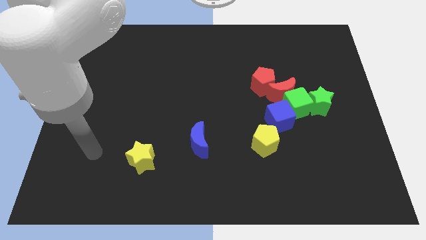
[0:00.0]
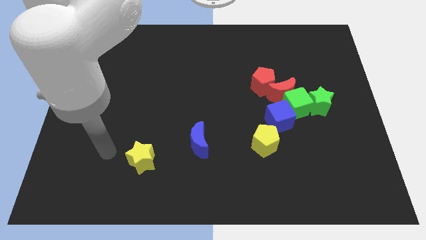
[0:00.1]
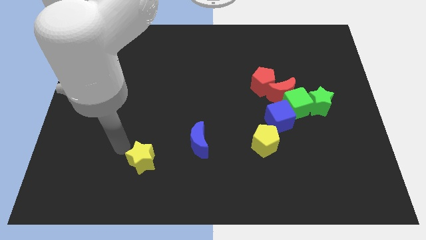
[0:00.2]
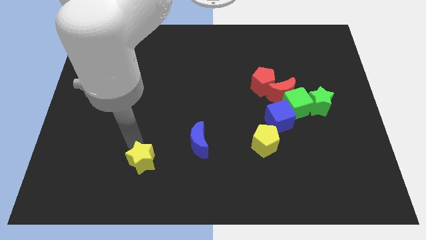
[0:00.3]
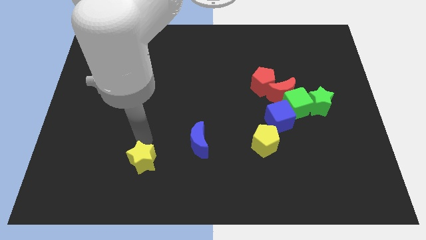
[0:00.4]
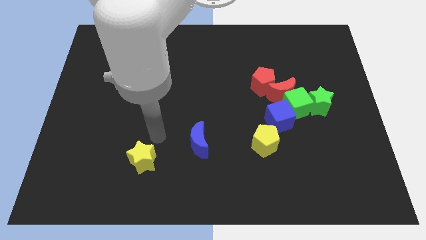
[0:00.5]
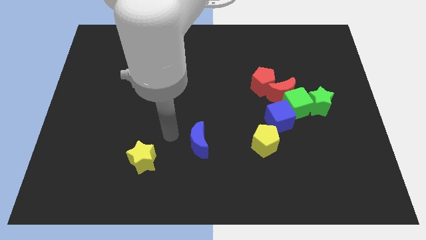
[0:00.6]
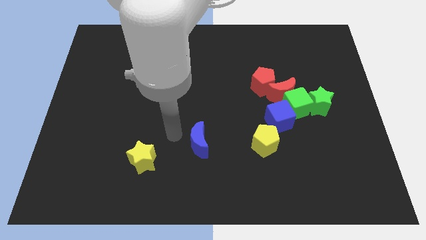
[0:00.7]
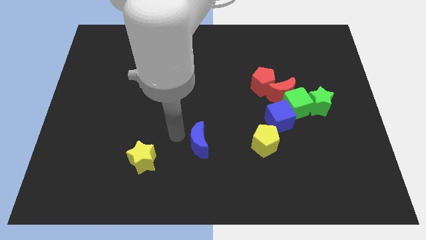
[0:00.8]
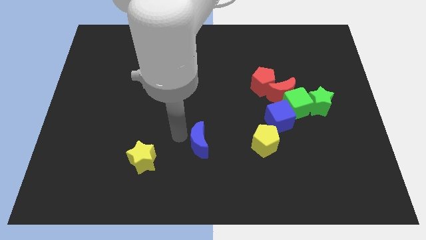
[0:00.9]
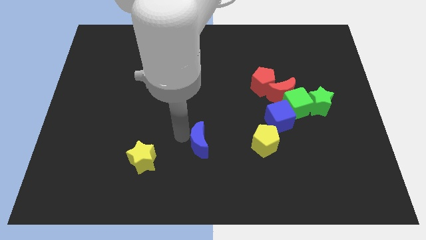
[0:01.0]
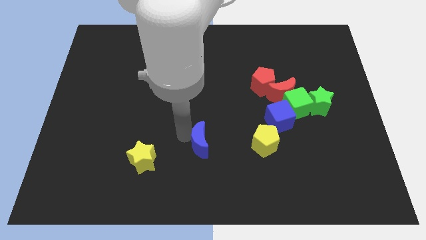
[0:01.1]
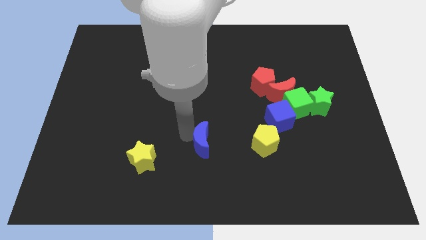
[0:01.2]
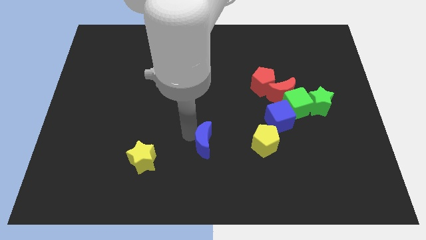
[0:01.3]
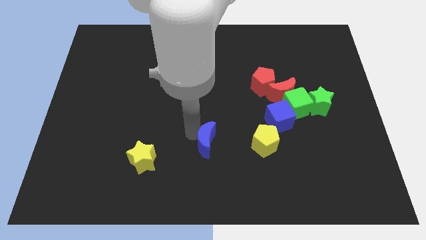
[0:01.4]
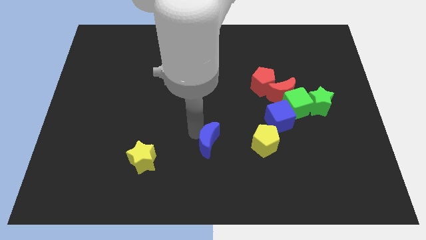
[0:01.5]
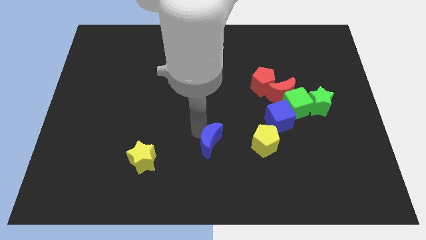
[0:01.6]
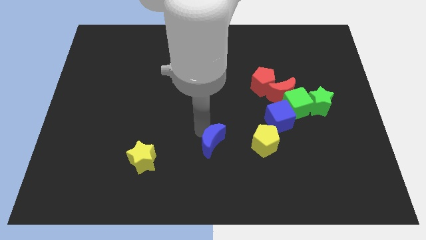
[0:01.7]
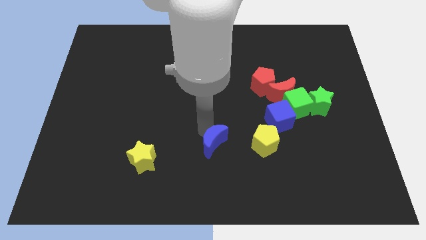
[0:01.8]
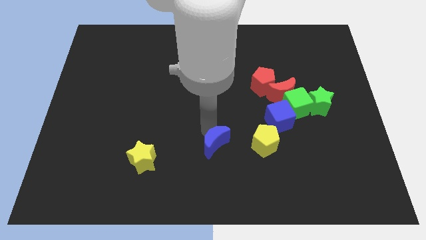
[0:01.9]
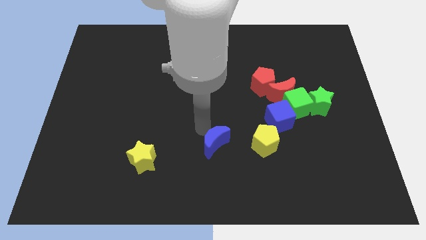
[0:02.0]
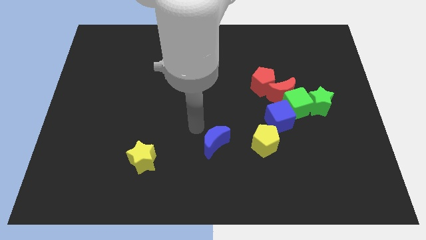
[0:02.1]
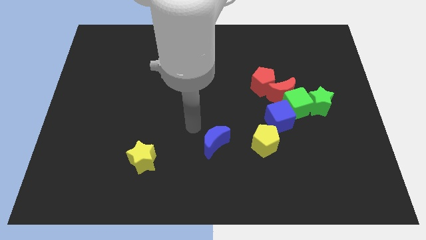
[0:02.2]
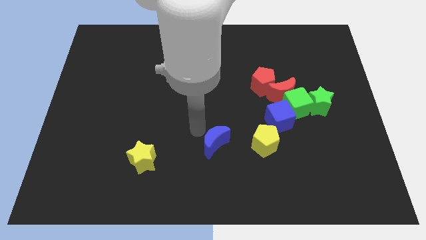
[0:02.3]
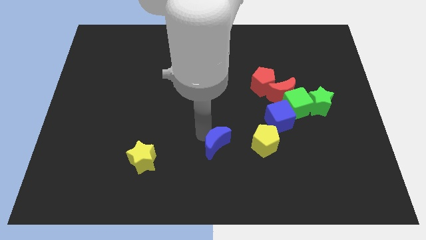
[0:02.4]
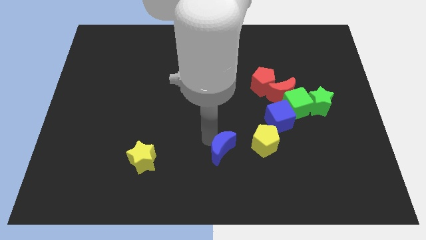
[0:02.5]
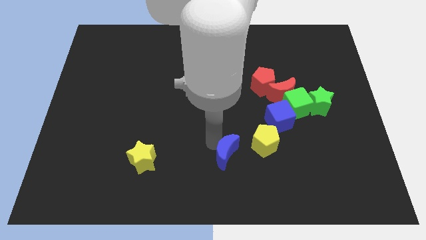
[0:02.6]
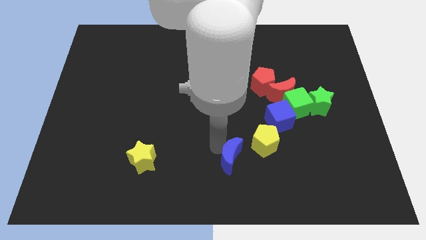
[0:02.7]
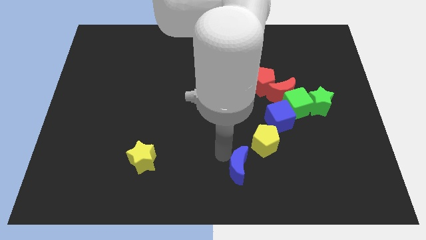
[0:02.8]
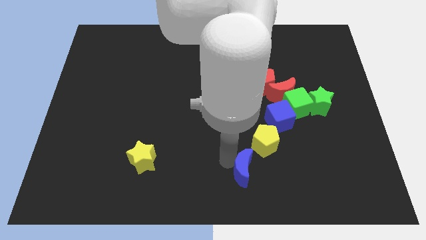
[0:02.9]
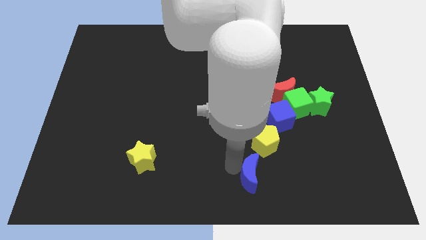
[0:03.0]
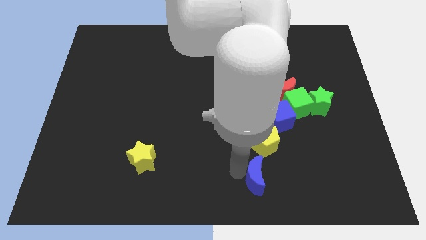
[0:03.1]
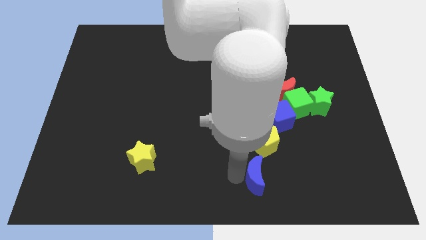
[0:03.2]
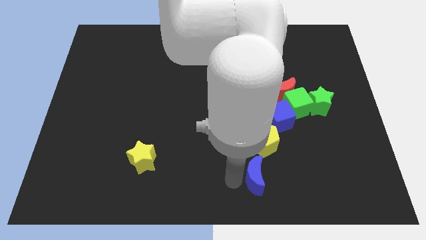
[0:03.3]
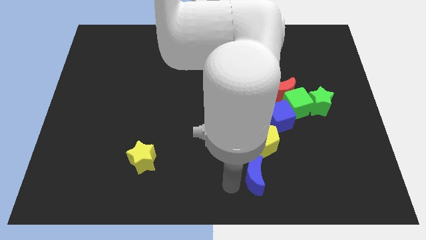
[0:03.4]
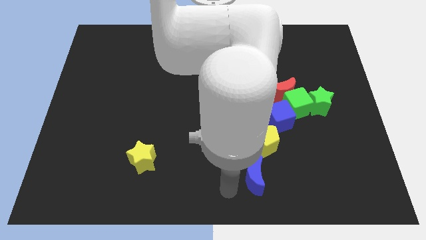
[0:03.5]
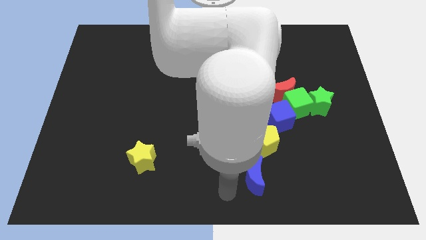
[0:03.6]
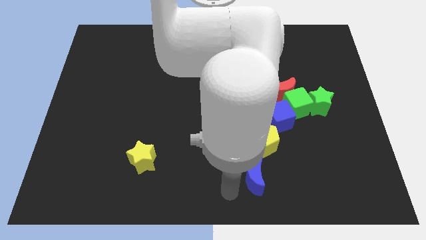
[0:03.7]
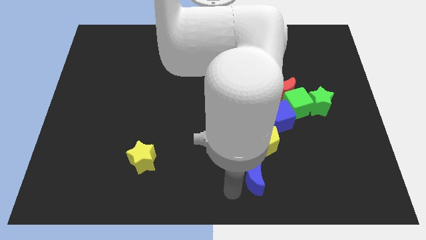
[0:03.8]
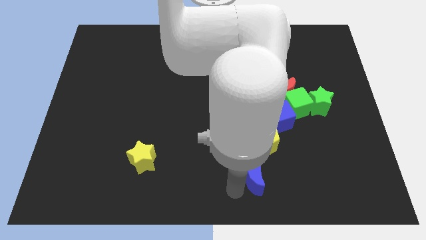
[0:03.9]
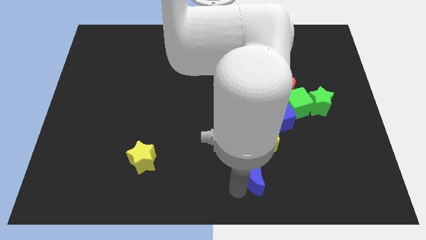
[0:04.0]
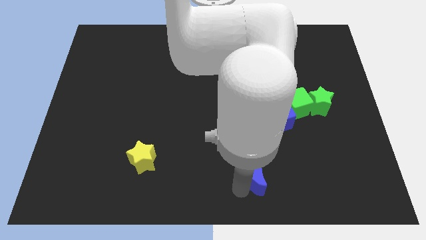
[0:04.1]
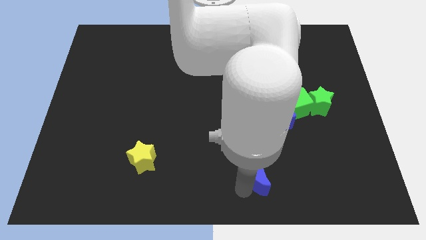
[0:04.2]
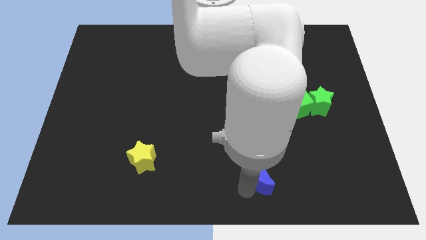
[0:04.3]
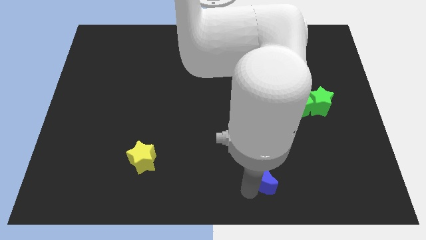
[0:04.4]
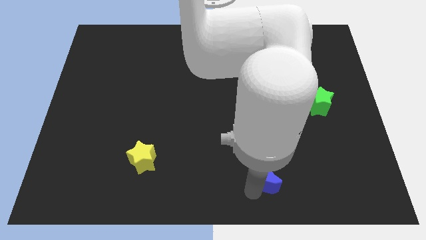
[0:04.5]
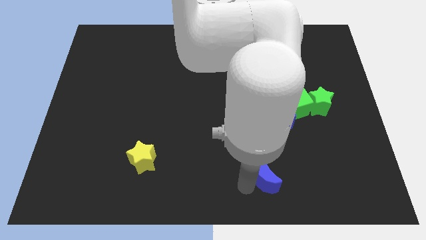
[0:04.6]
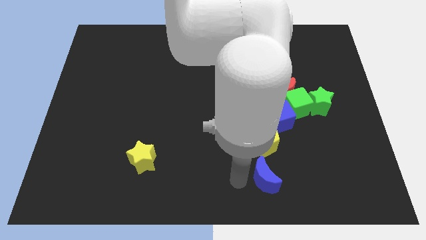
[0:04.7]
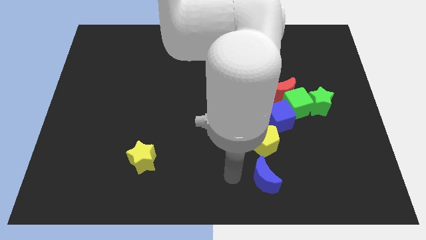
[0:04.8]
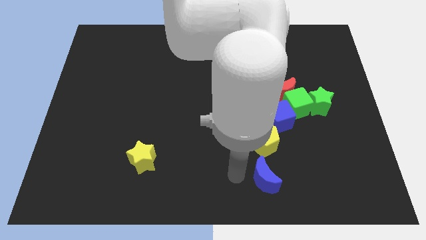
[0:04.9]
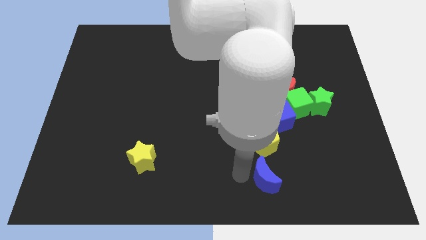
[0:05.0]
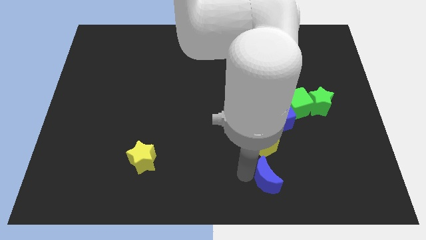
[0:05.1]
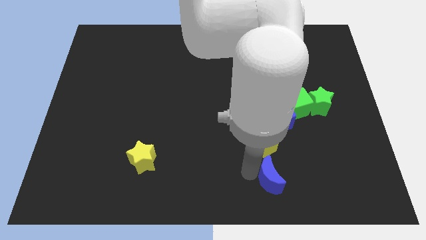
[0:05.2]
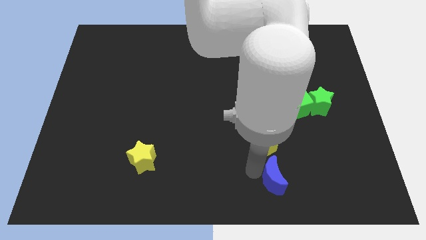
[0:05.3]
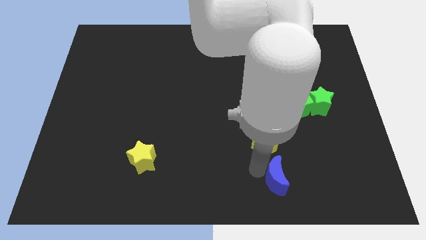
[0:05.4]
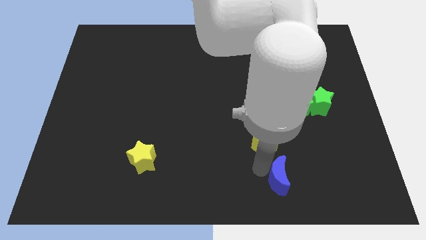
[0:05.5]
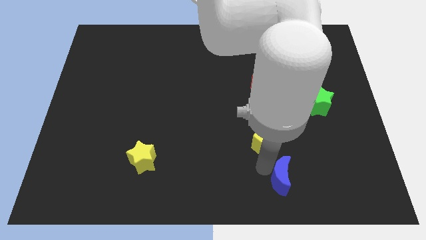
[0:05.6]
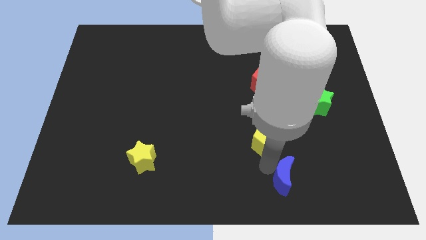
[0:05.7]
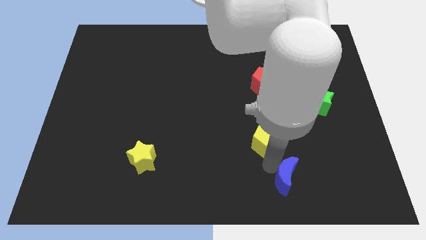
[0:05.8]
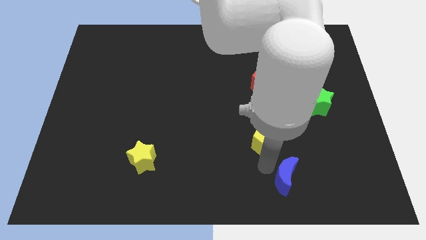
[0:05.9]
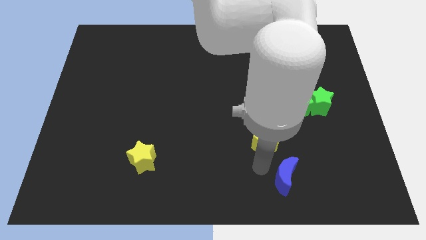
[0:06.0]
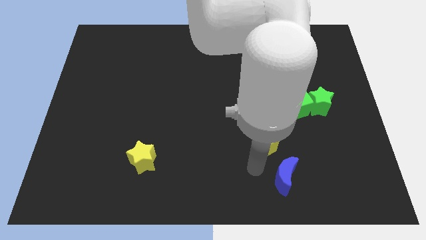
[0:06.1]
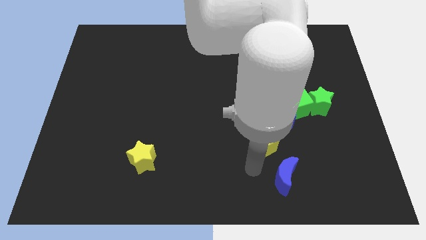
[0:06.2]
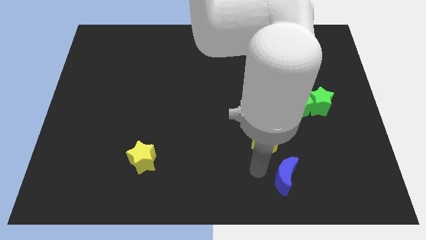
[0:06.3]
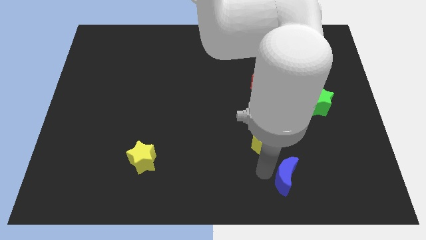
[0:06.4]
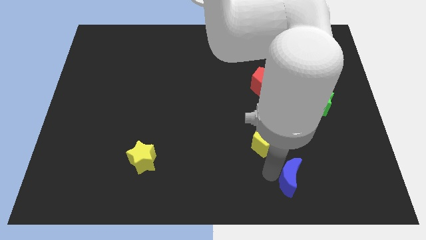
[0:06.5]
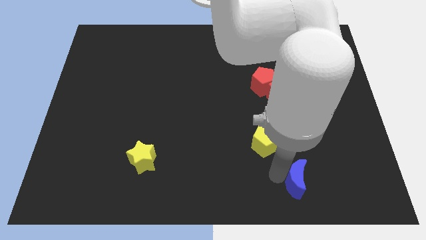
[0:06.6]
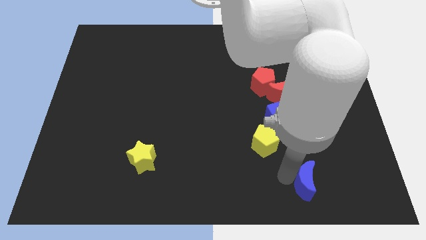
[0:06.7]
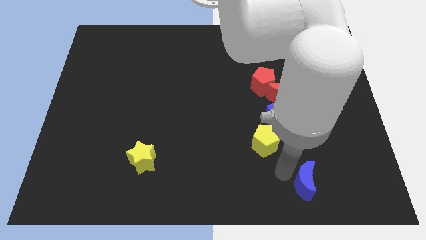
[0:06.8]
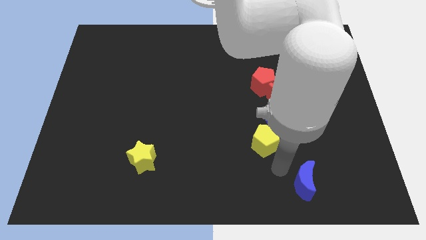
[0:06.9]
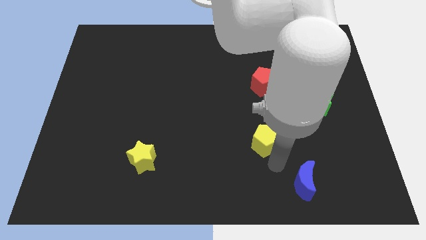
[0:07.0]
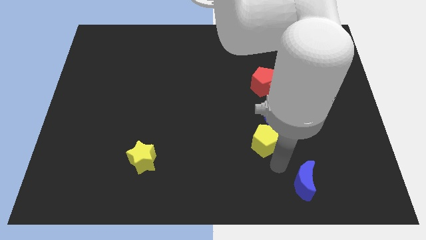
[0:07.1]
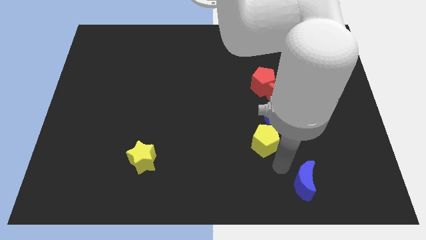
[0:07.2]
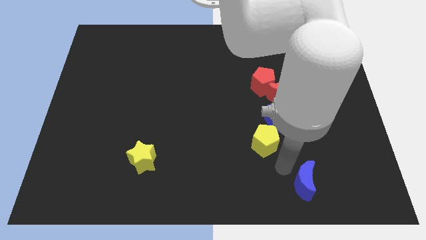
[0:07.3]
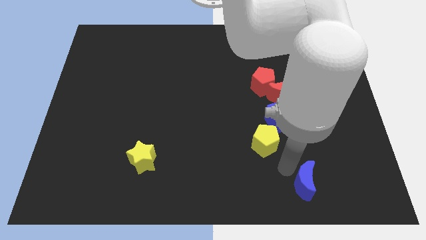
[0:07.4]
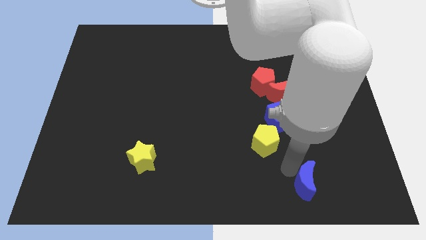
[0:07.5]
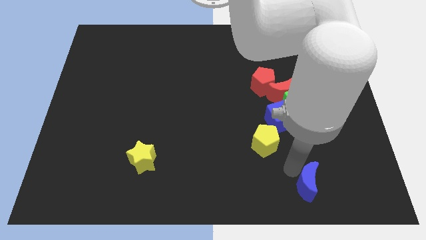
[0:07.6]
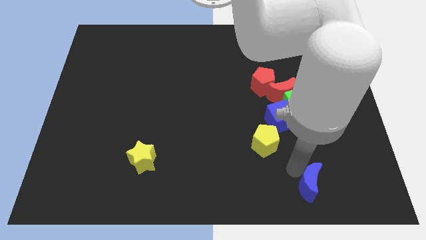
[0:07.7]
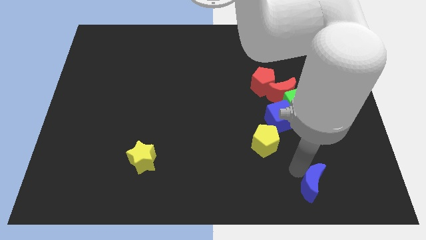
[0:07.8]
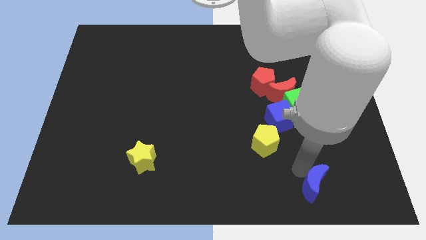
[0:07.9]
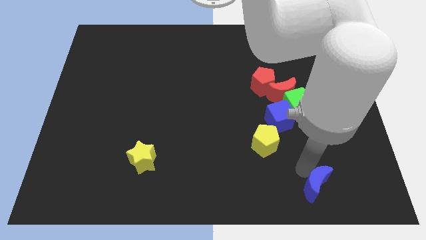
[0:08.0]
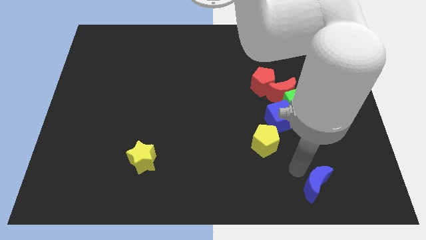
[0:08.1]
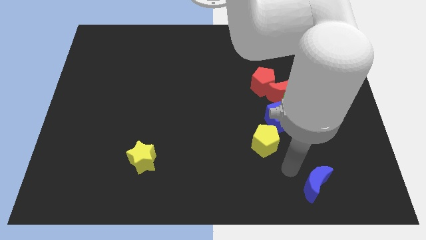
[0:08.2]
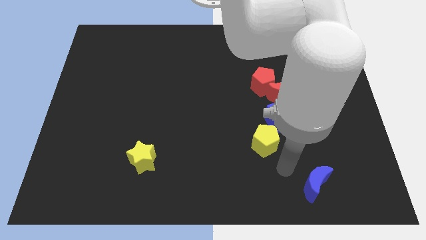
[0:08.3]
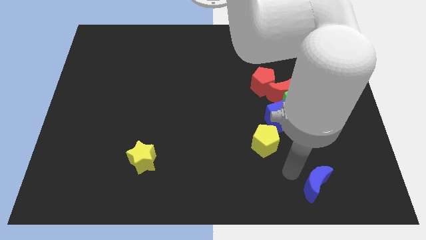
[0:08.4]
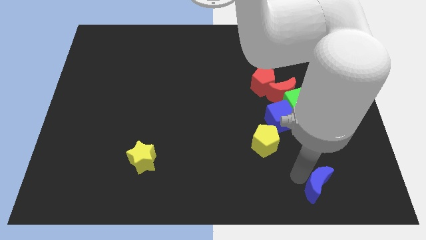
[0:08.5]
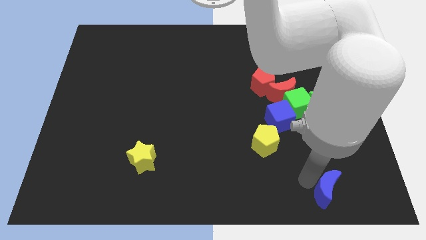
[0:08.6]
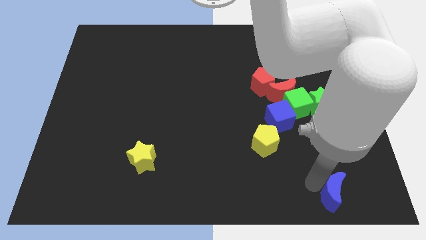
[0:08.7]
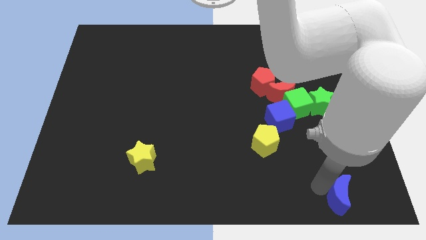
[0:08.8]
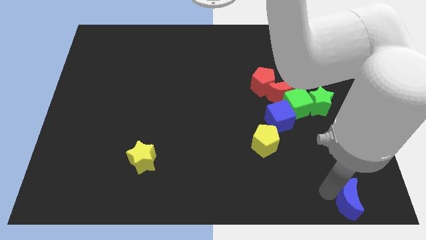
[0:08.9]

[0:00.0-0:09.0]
slide the blue moon to the bottom right
